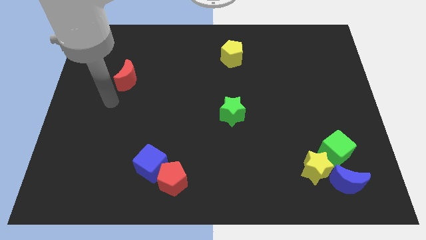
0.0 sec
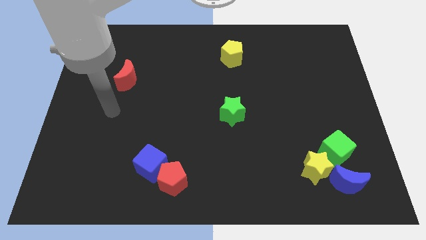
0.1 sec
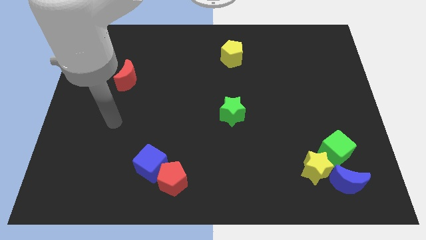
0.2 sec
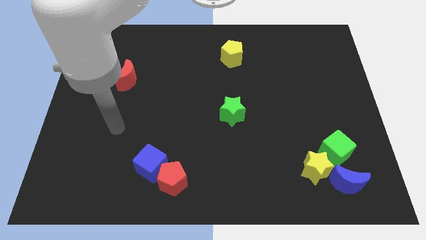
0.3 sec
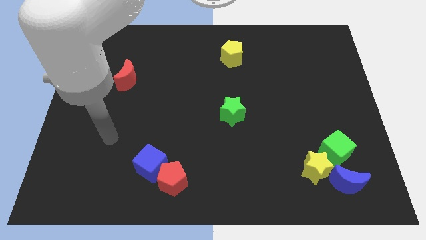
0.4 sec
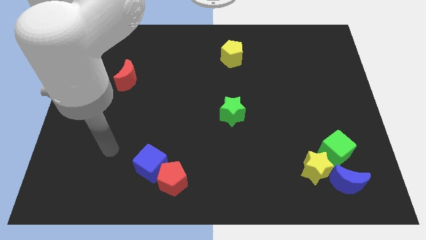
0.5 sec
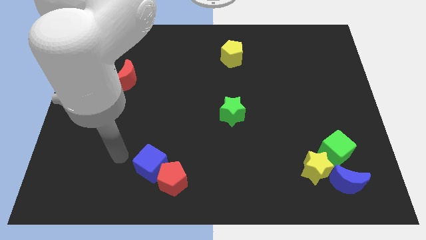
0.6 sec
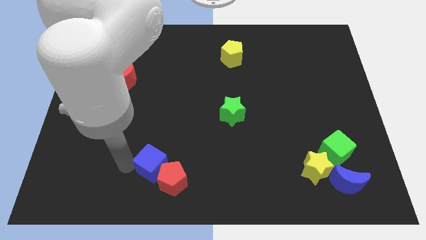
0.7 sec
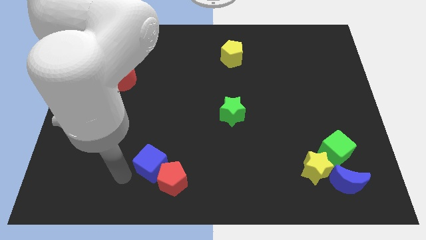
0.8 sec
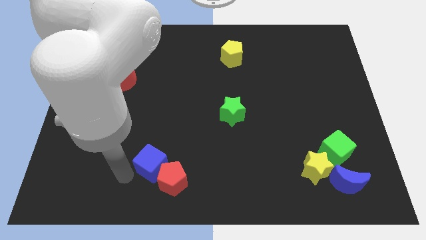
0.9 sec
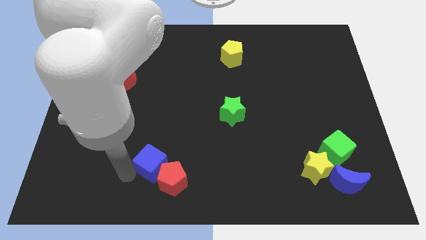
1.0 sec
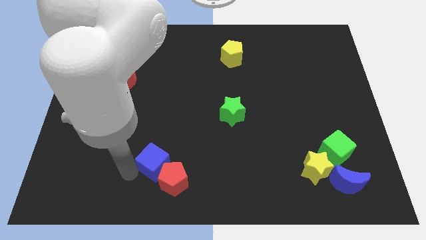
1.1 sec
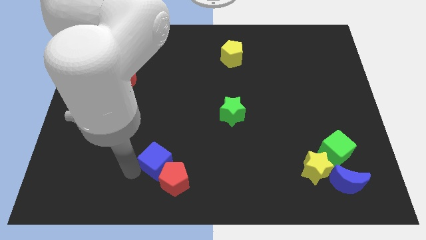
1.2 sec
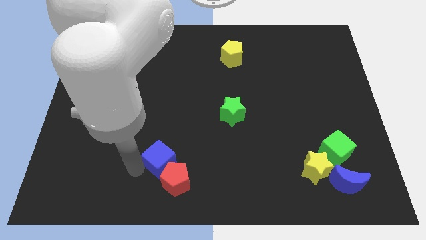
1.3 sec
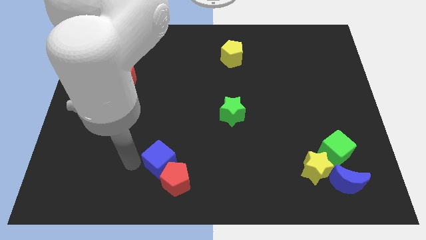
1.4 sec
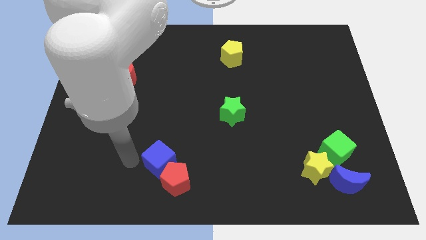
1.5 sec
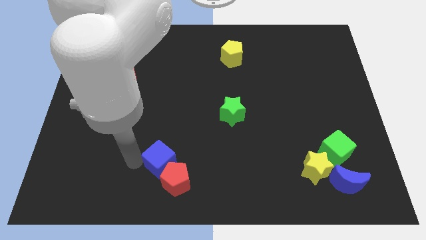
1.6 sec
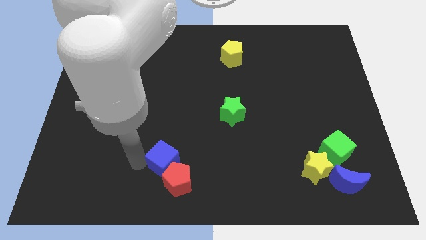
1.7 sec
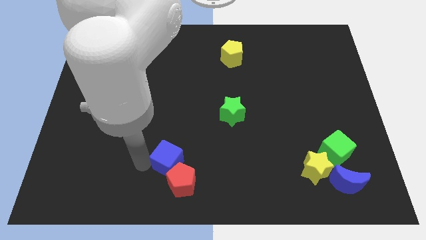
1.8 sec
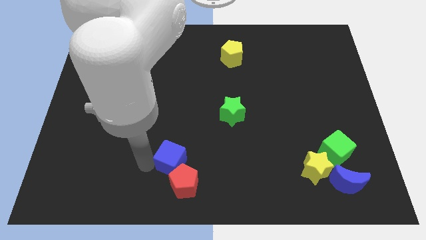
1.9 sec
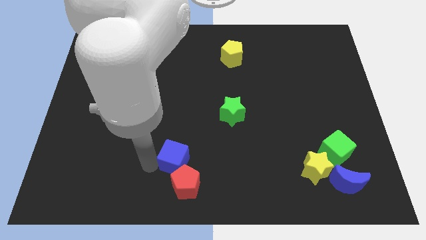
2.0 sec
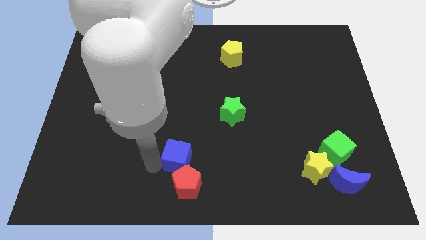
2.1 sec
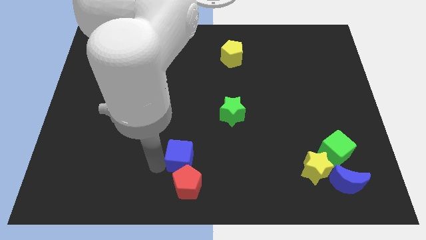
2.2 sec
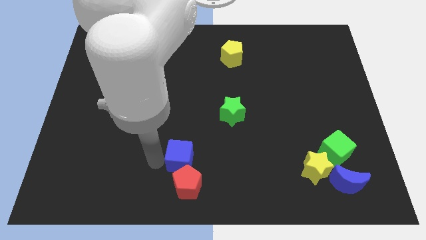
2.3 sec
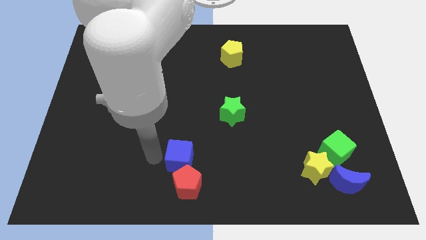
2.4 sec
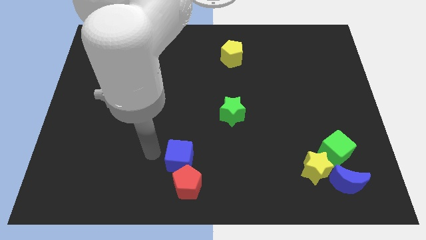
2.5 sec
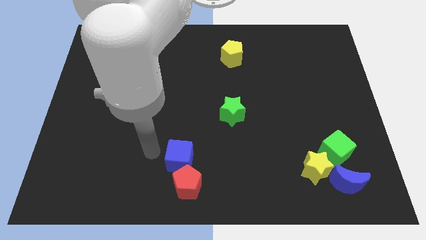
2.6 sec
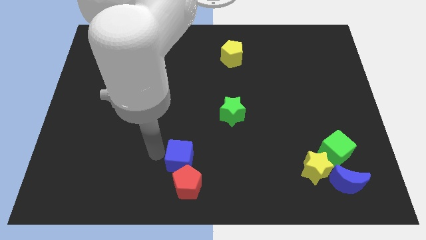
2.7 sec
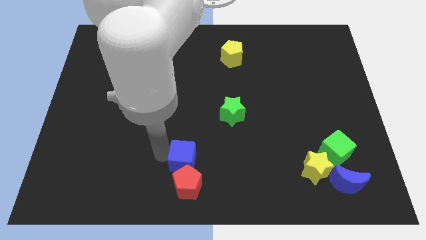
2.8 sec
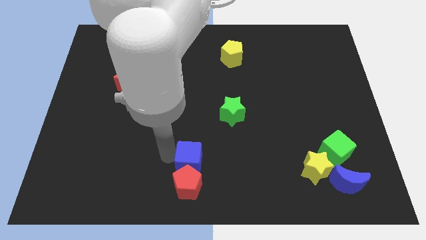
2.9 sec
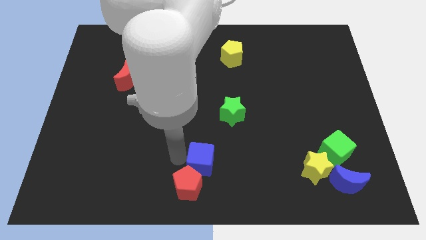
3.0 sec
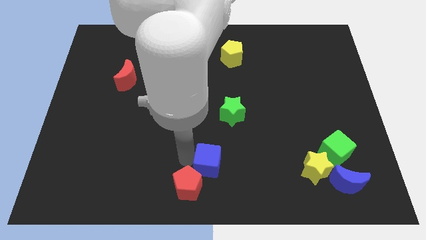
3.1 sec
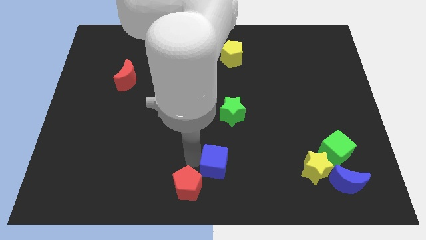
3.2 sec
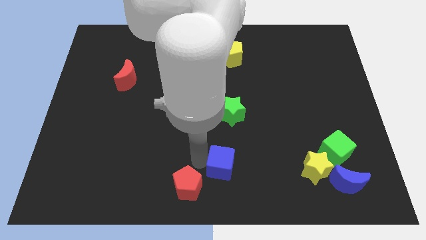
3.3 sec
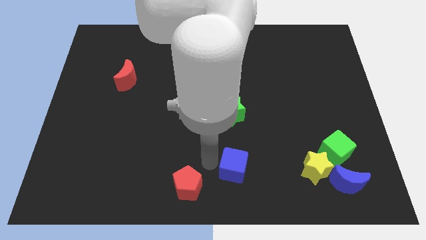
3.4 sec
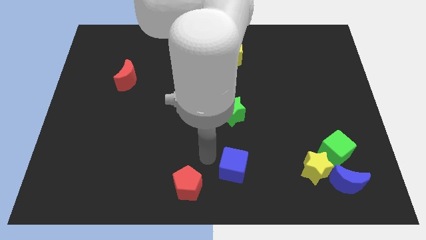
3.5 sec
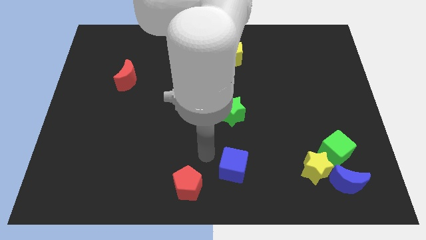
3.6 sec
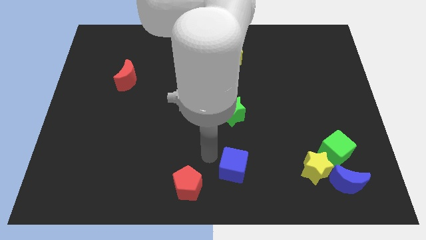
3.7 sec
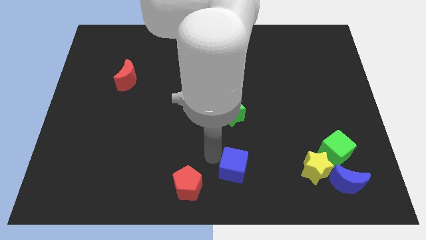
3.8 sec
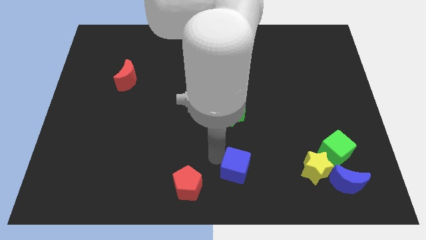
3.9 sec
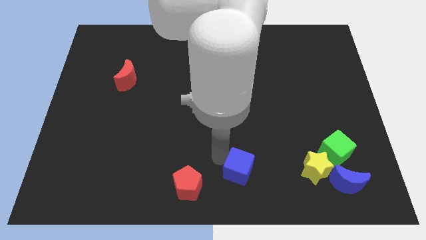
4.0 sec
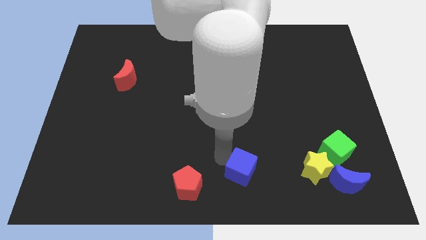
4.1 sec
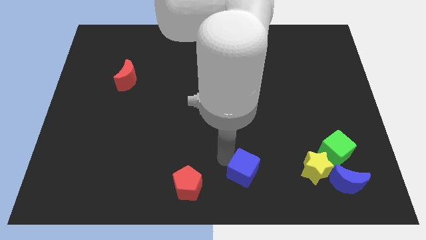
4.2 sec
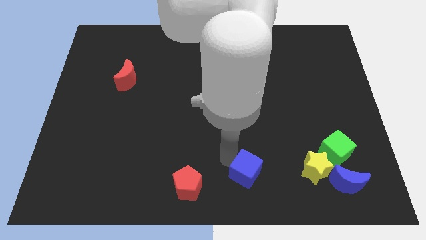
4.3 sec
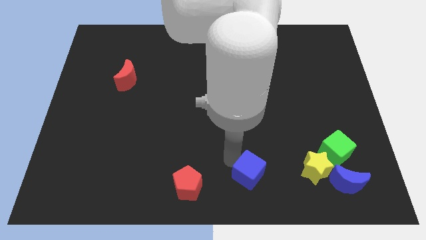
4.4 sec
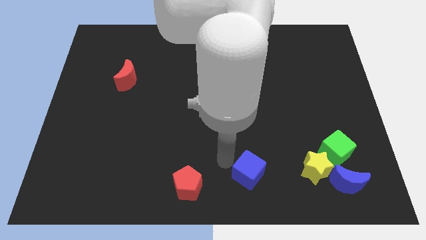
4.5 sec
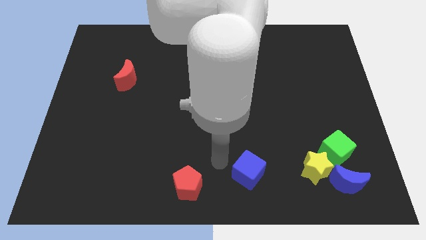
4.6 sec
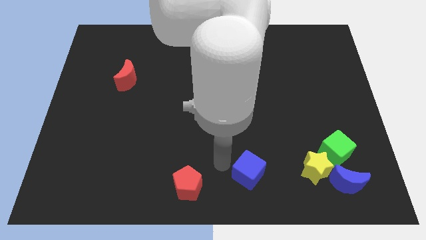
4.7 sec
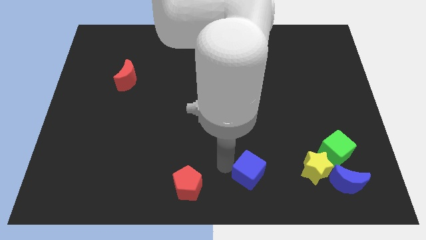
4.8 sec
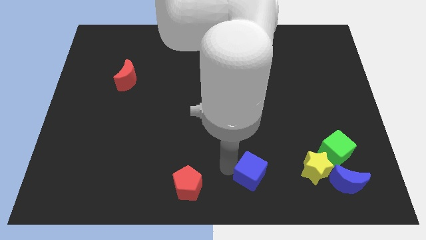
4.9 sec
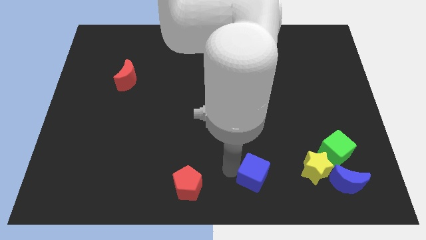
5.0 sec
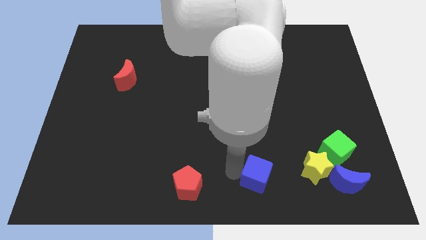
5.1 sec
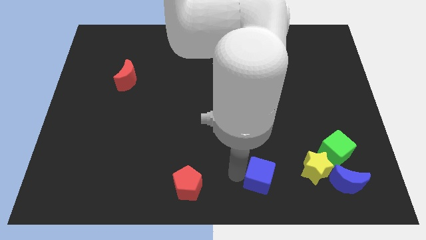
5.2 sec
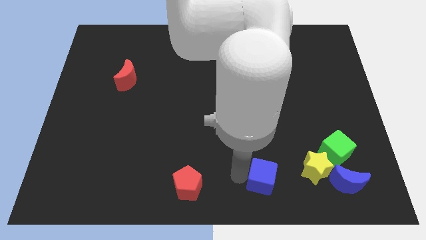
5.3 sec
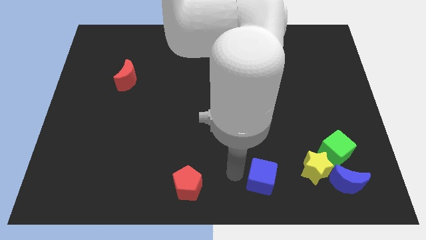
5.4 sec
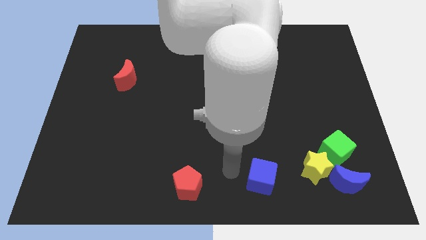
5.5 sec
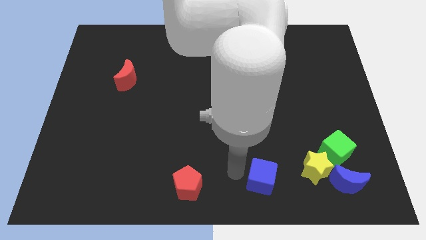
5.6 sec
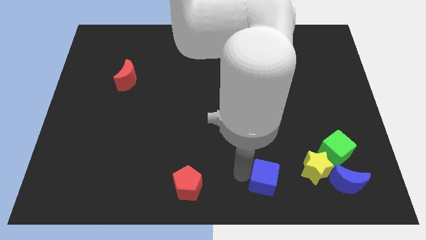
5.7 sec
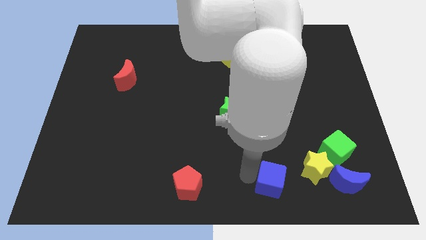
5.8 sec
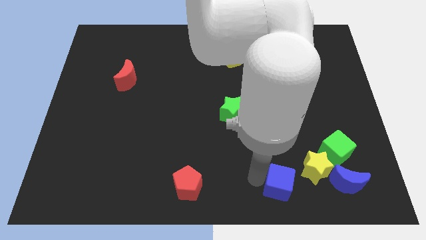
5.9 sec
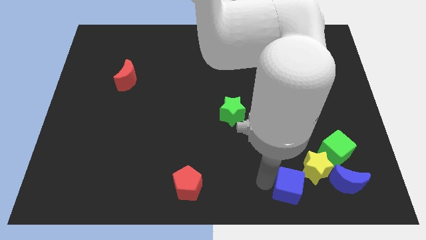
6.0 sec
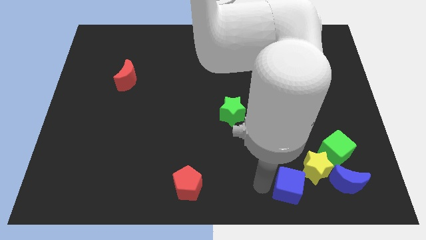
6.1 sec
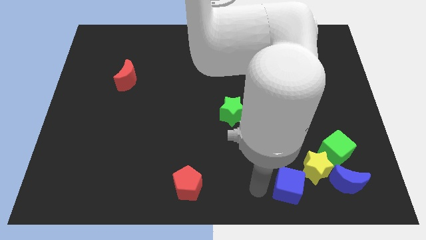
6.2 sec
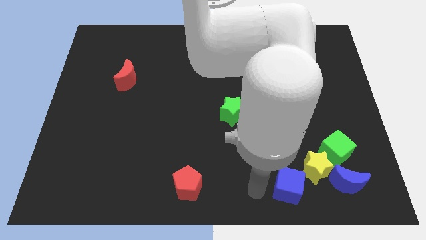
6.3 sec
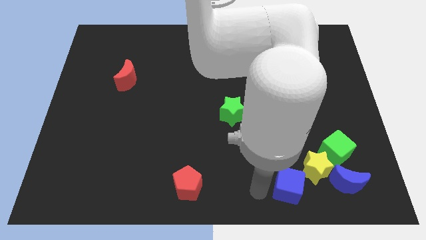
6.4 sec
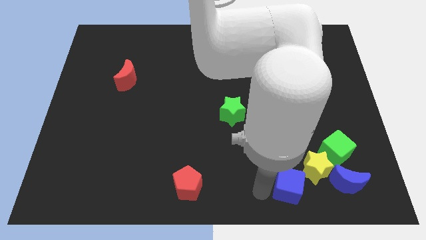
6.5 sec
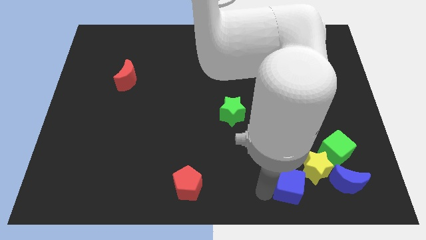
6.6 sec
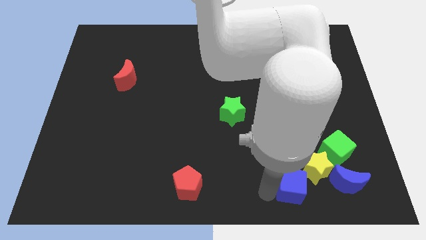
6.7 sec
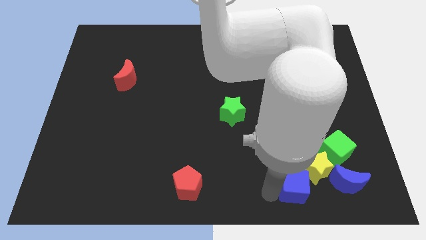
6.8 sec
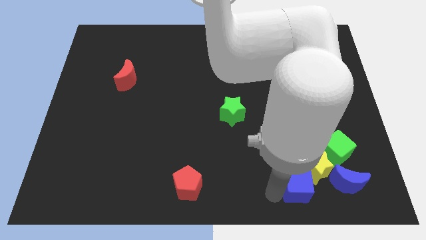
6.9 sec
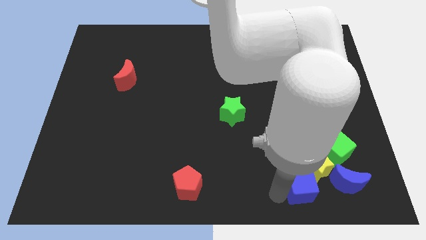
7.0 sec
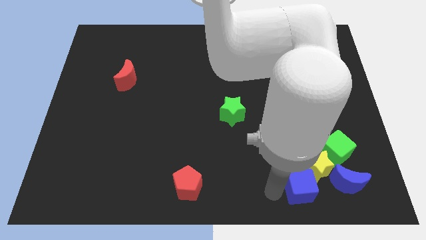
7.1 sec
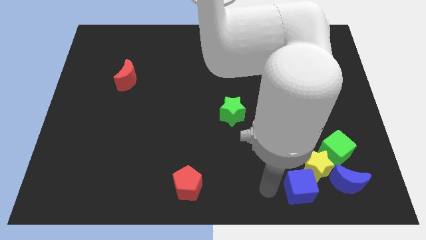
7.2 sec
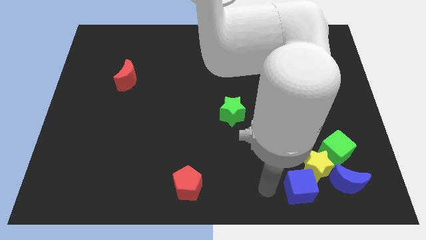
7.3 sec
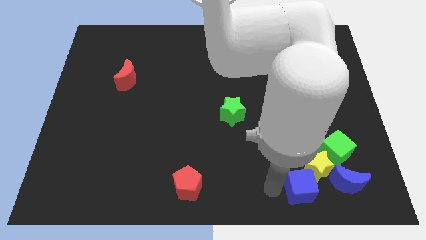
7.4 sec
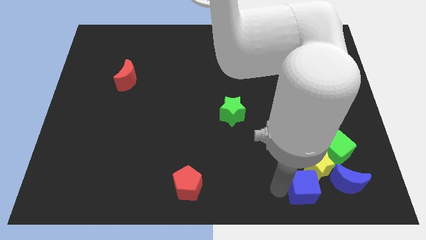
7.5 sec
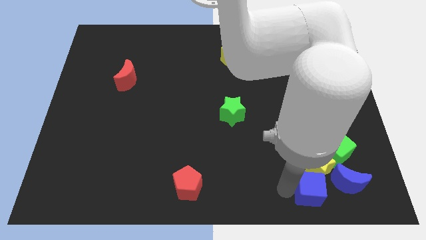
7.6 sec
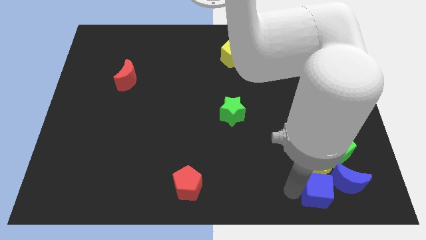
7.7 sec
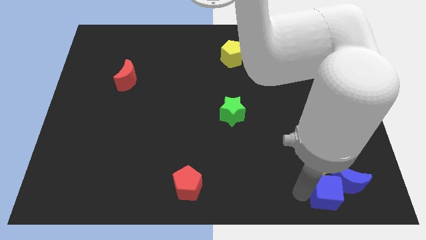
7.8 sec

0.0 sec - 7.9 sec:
put the blue cube next to the blue moon
